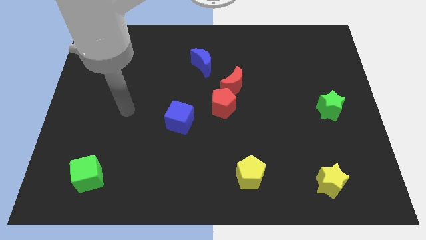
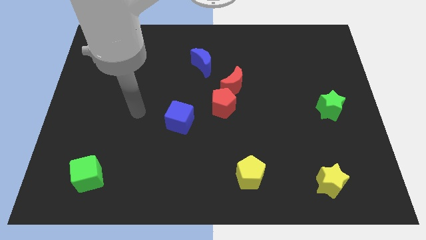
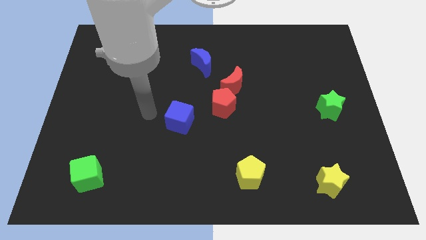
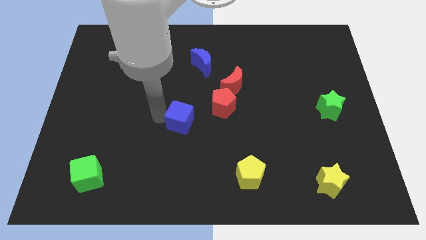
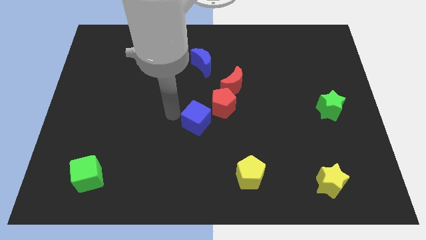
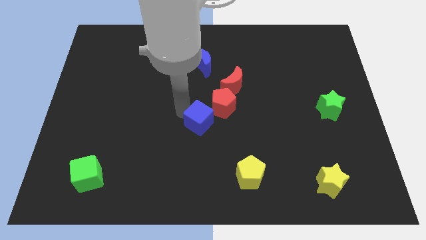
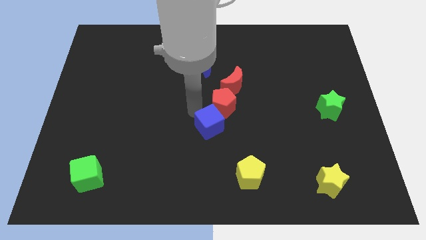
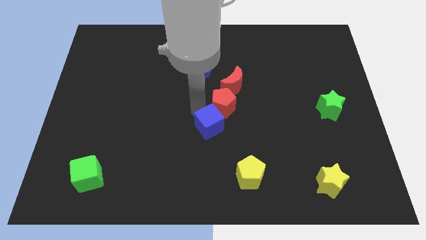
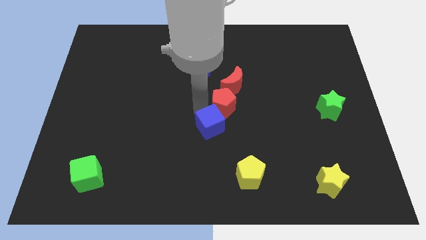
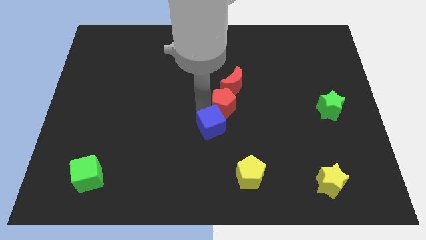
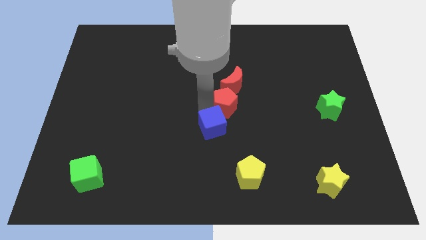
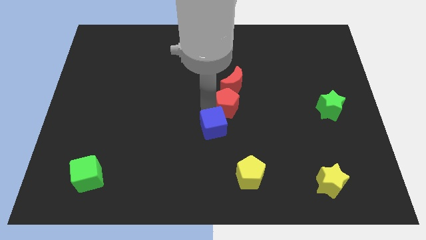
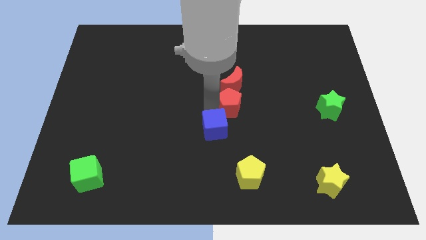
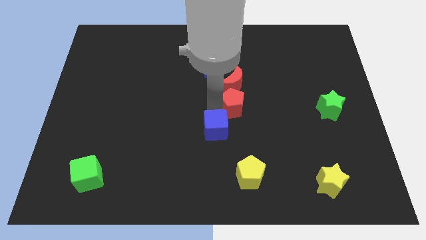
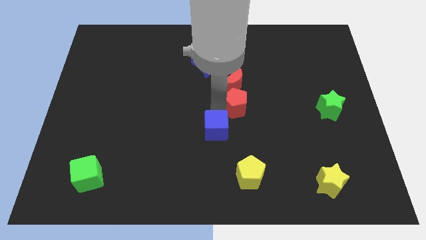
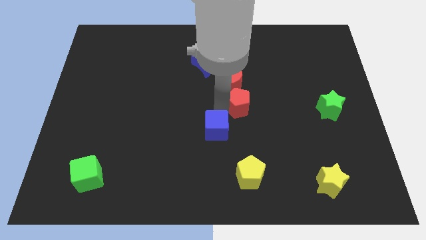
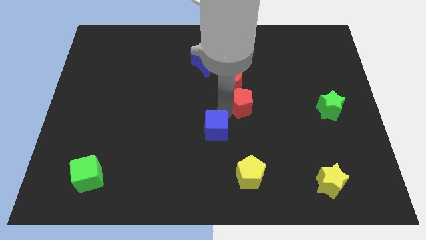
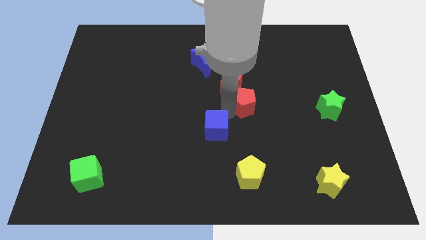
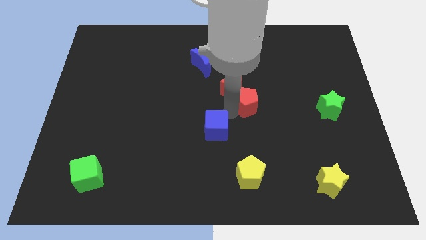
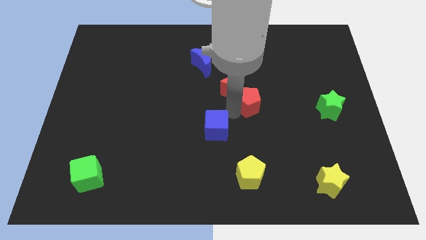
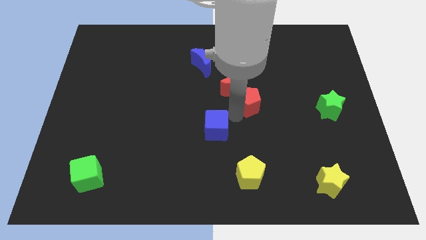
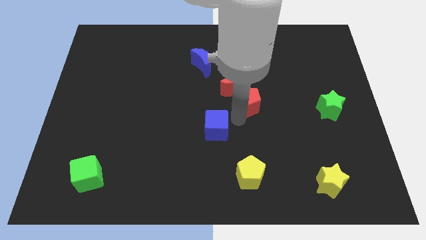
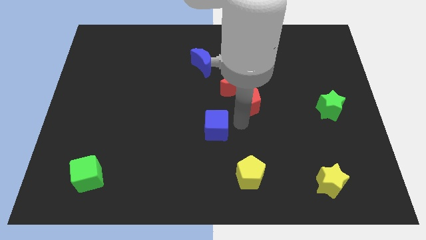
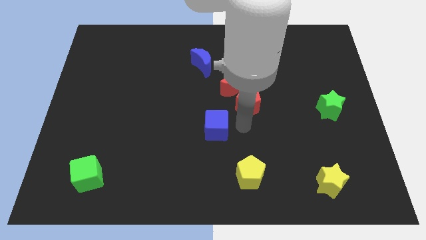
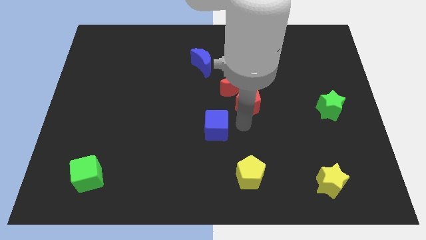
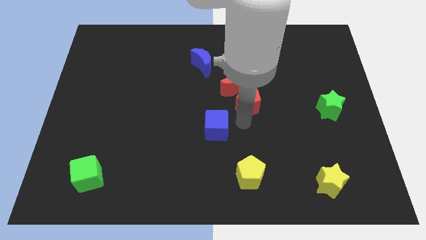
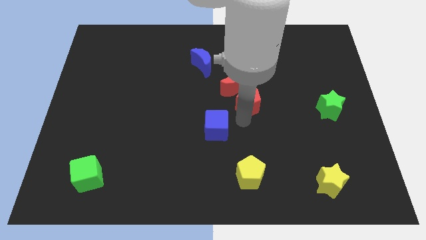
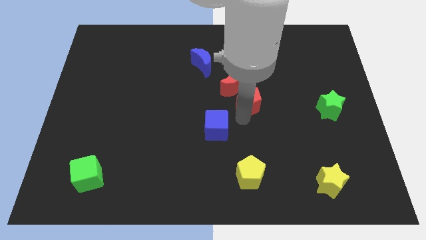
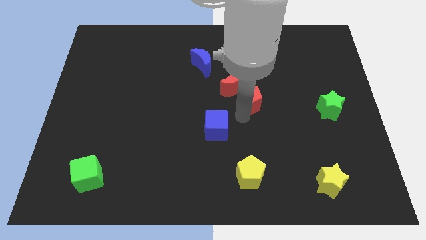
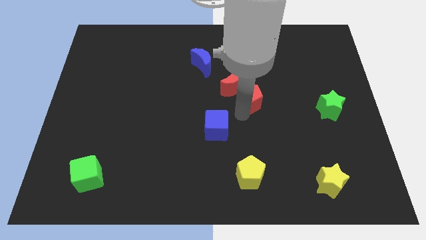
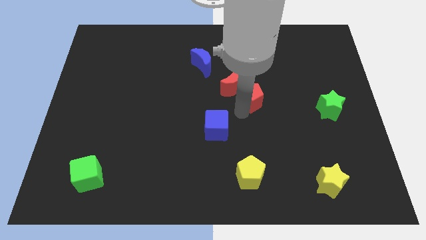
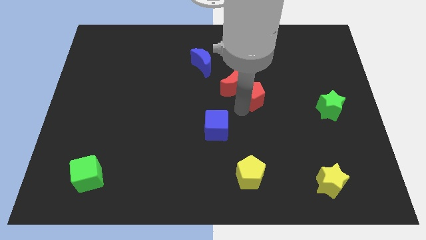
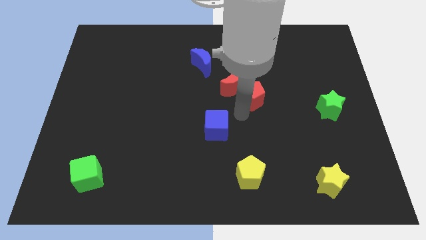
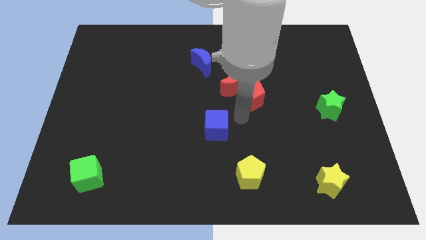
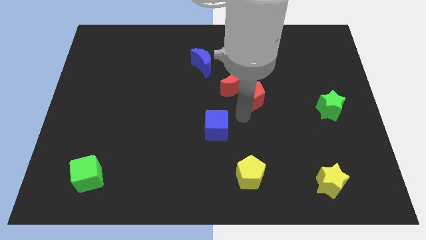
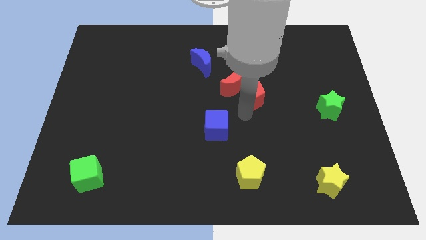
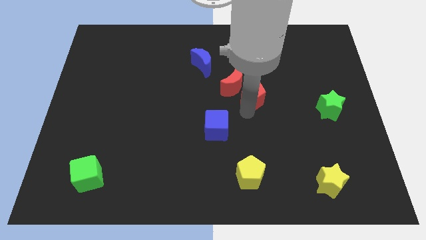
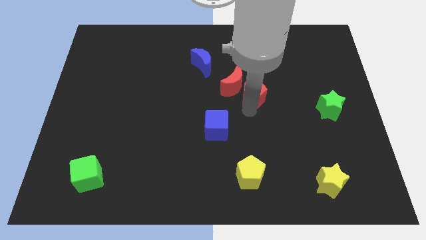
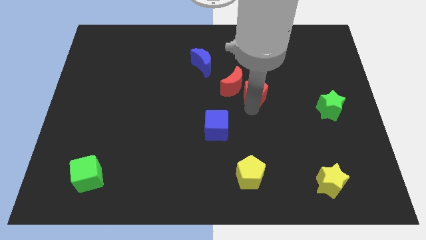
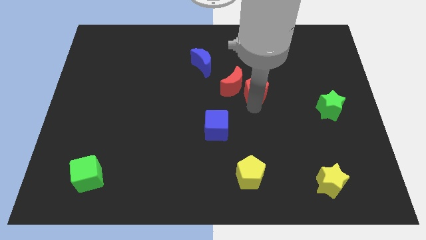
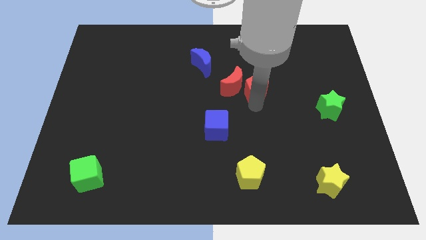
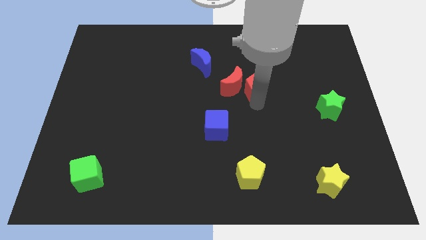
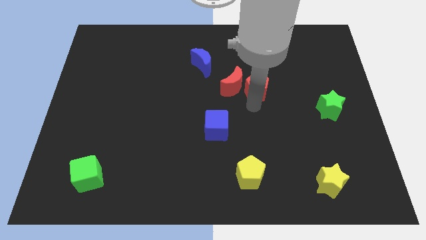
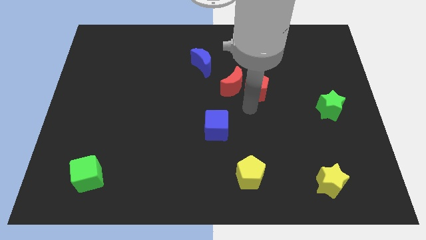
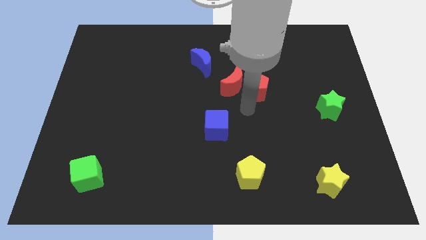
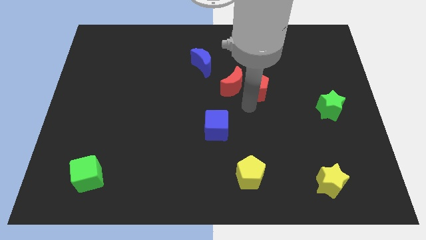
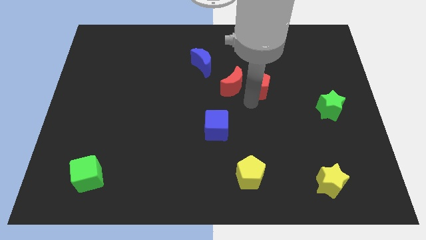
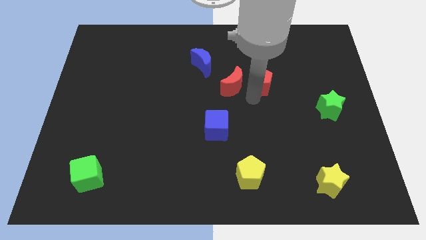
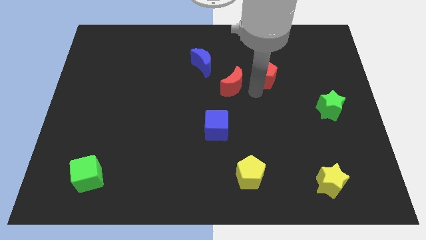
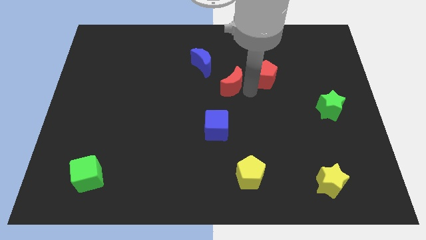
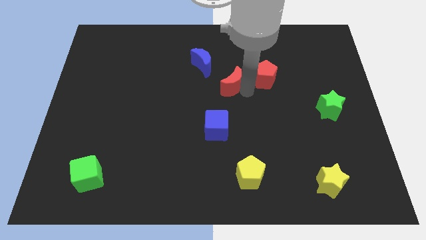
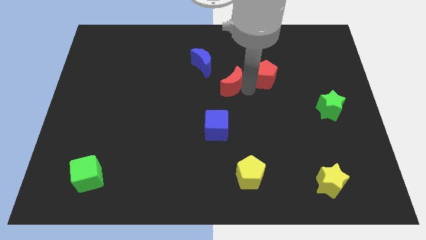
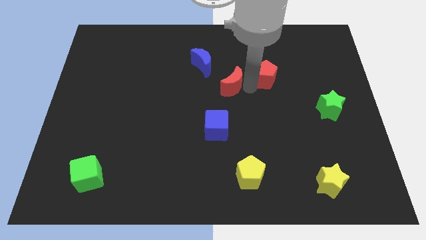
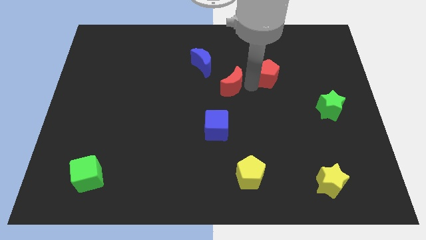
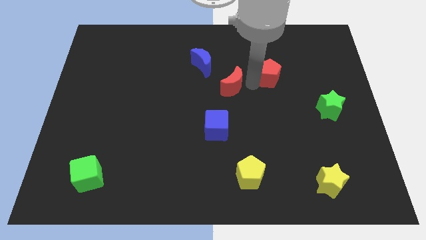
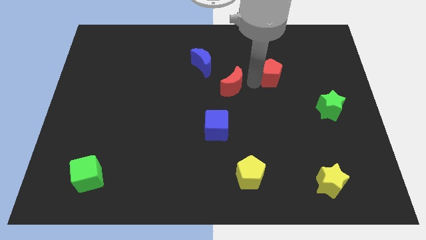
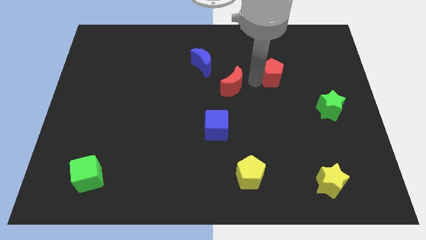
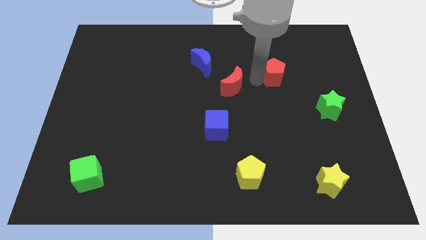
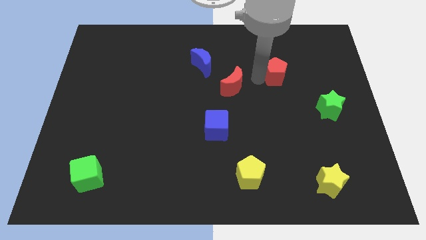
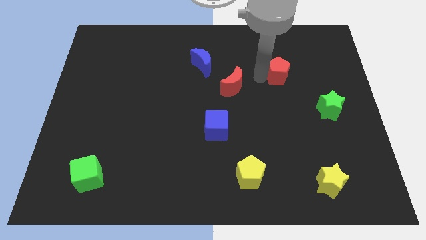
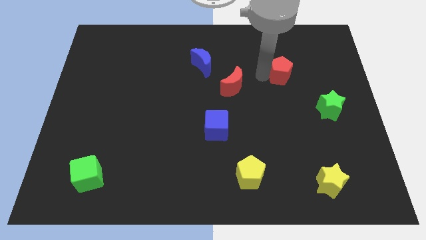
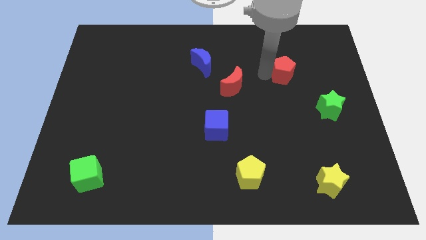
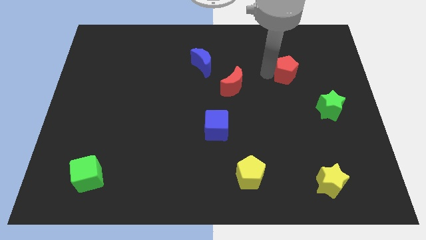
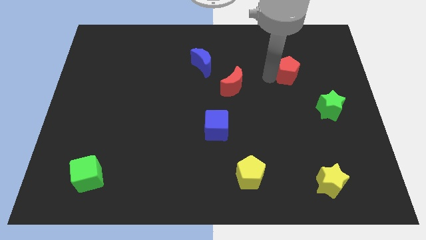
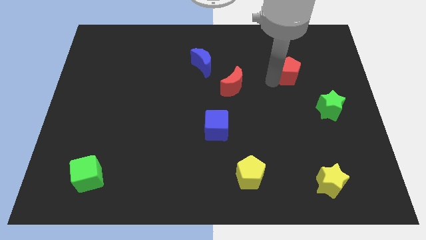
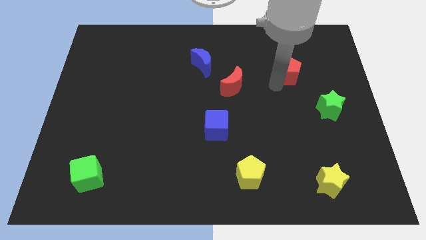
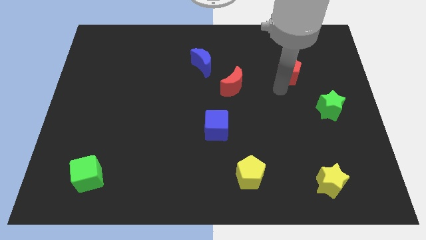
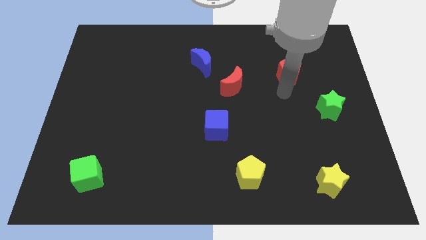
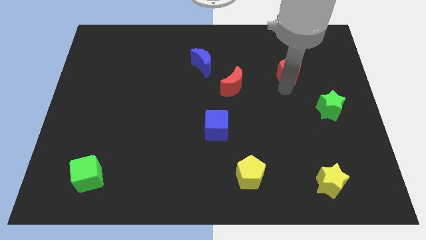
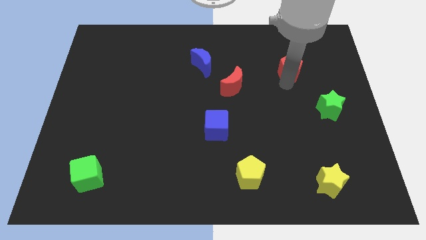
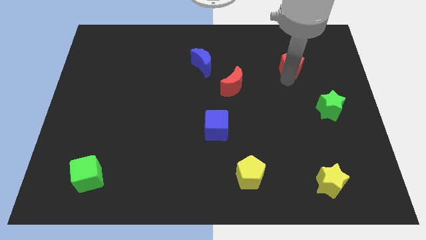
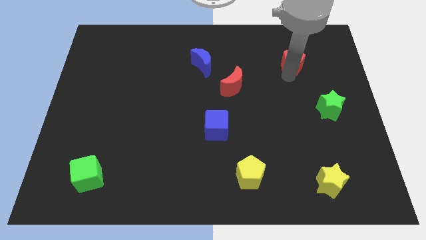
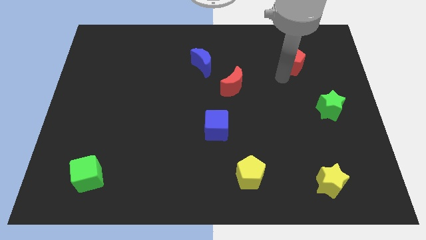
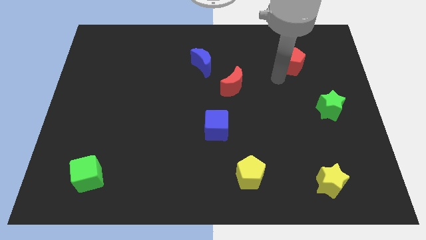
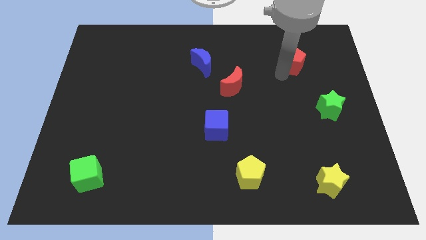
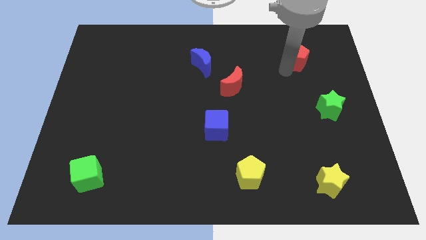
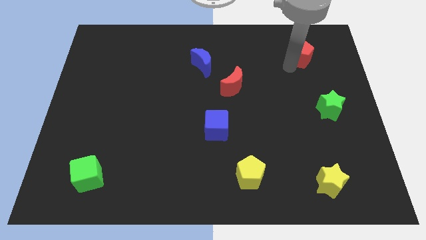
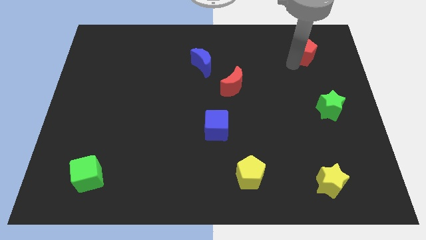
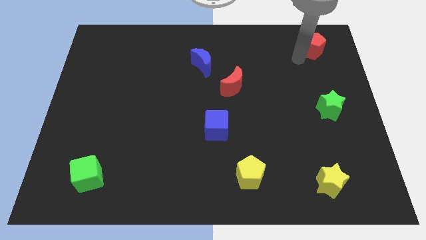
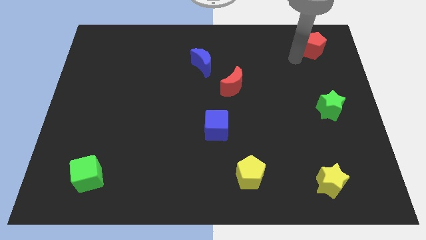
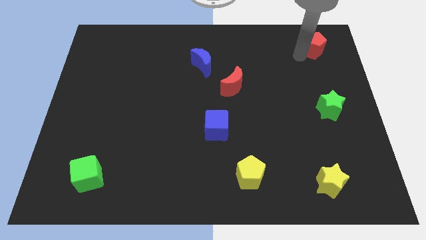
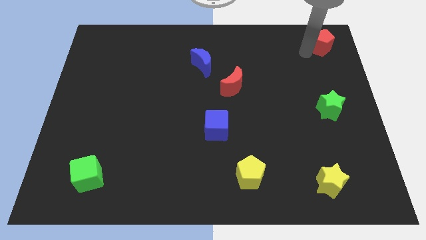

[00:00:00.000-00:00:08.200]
put the red pentagon to the top right corner
